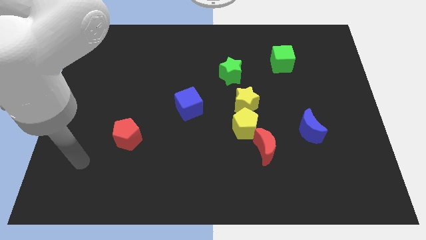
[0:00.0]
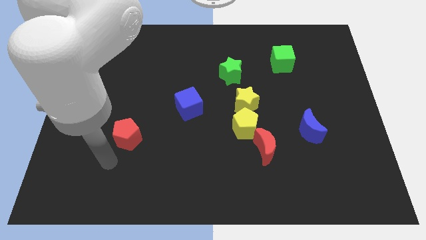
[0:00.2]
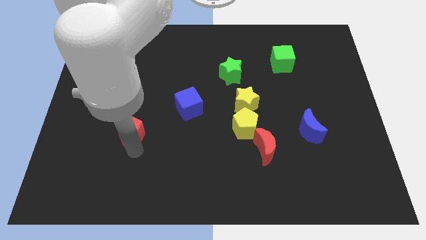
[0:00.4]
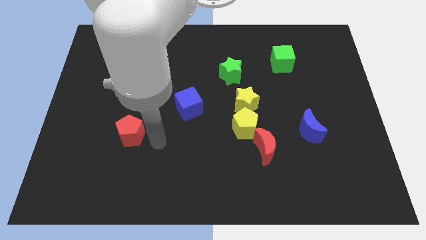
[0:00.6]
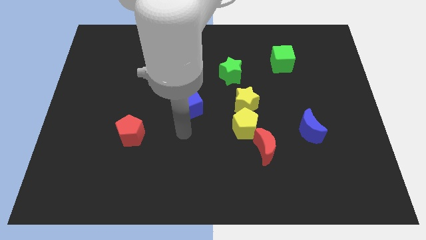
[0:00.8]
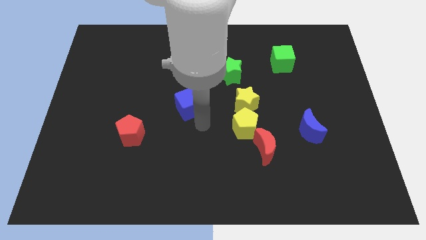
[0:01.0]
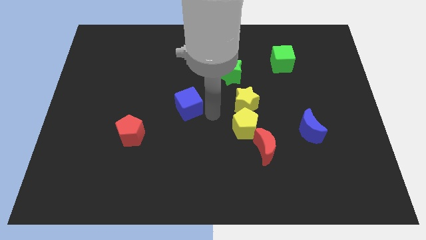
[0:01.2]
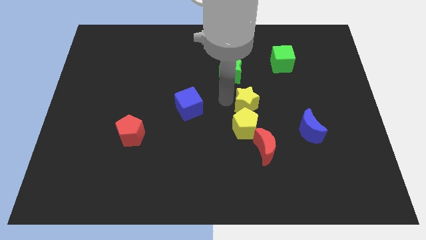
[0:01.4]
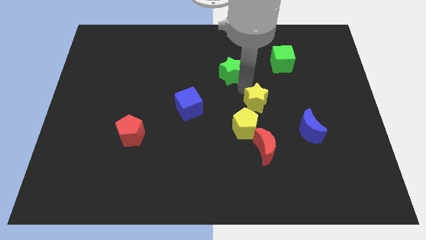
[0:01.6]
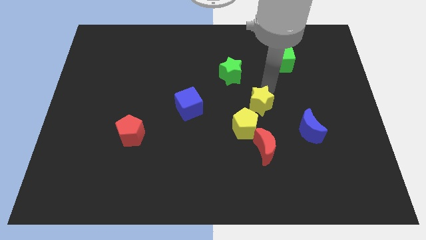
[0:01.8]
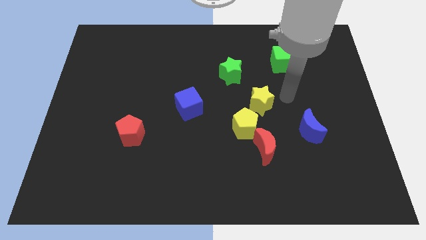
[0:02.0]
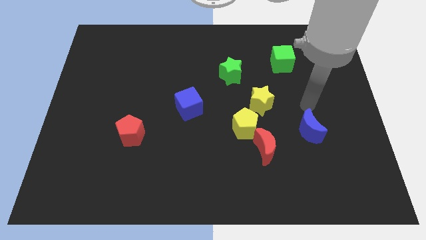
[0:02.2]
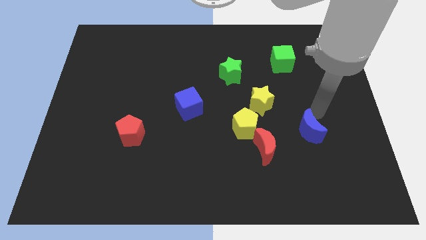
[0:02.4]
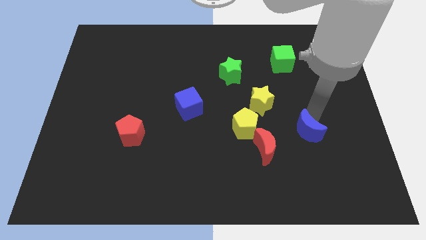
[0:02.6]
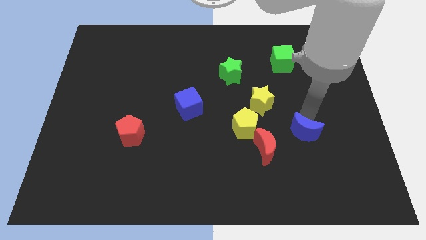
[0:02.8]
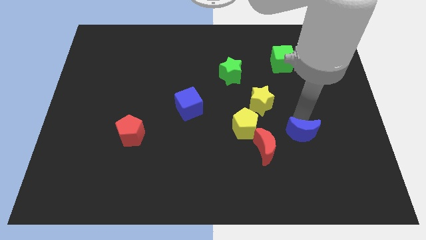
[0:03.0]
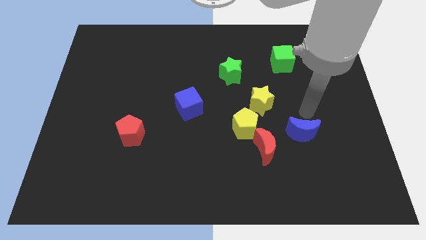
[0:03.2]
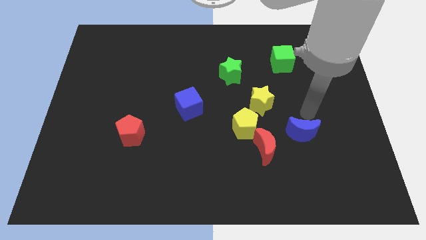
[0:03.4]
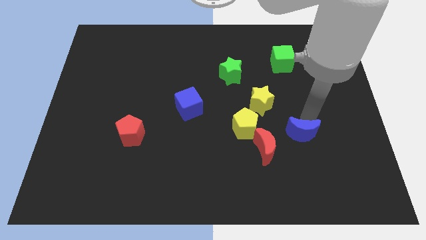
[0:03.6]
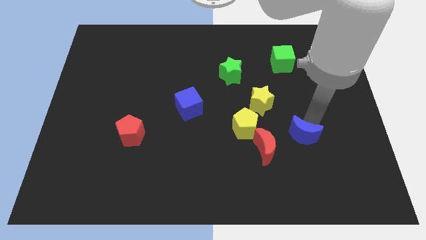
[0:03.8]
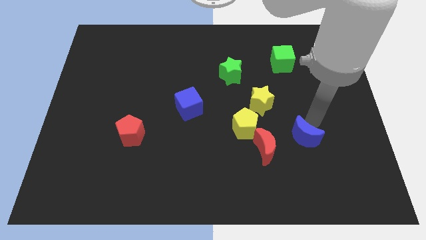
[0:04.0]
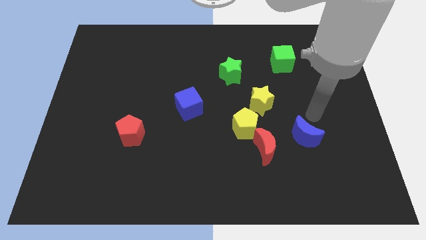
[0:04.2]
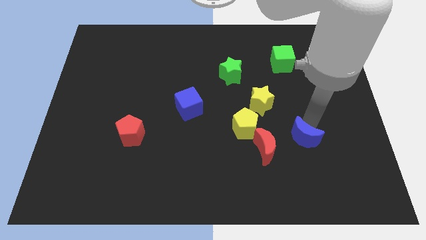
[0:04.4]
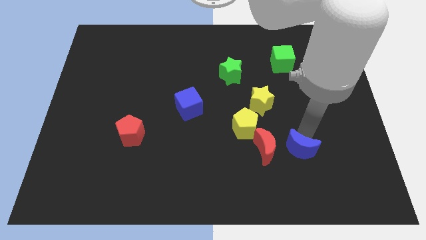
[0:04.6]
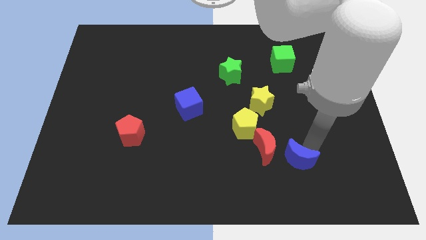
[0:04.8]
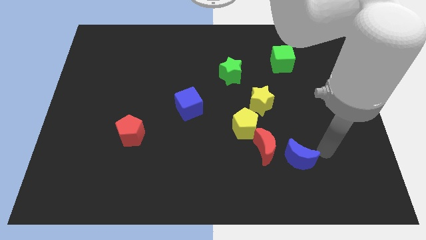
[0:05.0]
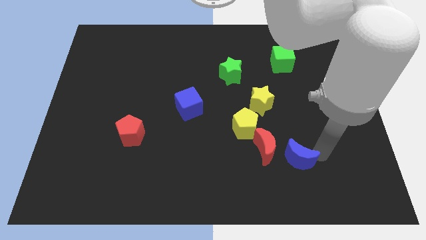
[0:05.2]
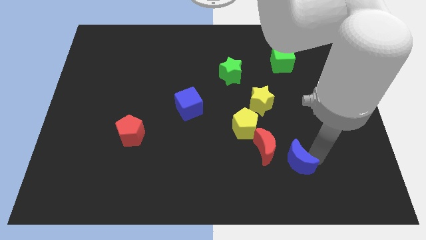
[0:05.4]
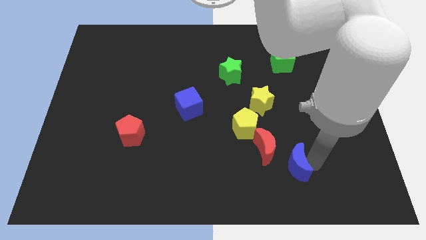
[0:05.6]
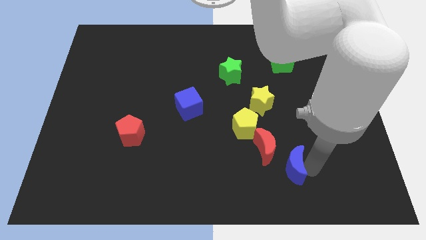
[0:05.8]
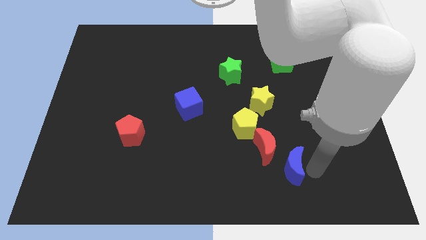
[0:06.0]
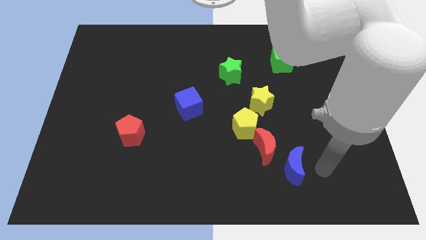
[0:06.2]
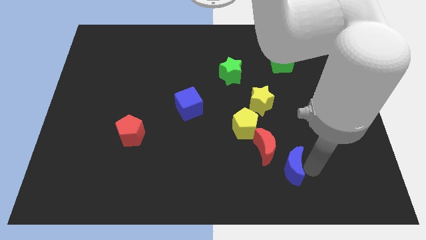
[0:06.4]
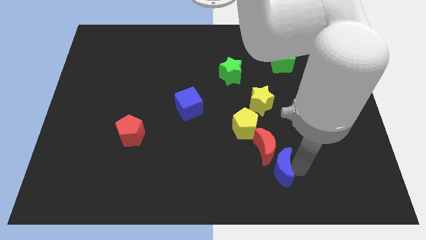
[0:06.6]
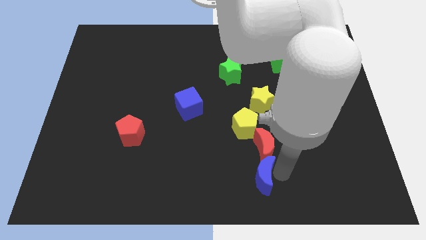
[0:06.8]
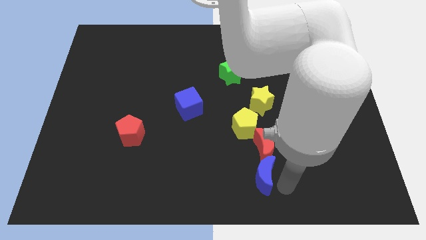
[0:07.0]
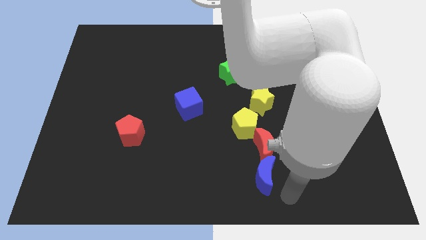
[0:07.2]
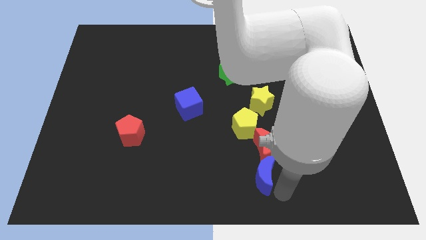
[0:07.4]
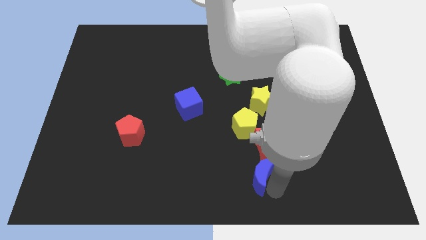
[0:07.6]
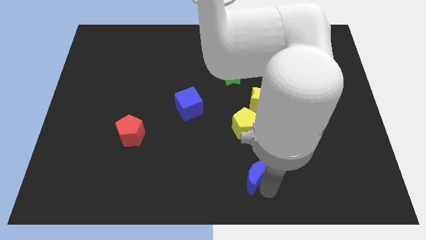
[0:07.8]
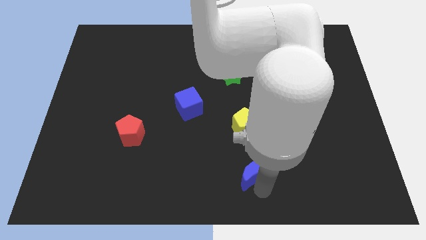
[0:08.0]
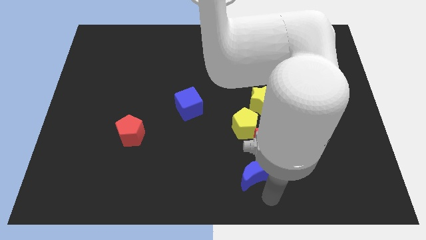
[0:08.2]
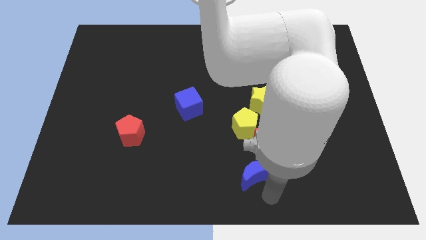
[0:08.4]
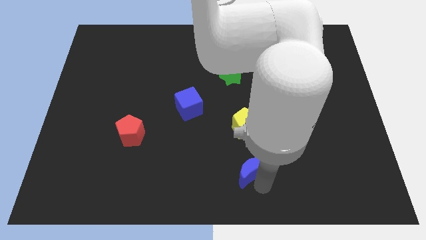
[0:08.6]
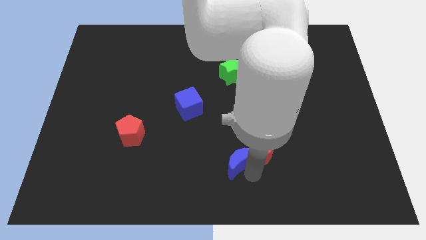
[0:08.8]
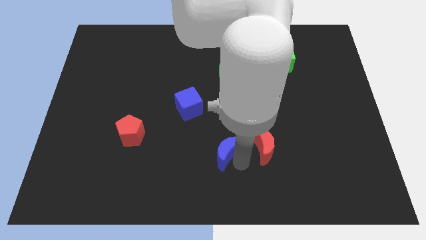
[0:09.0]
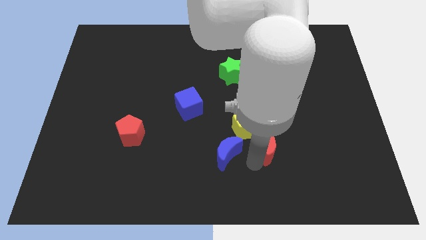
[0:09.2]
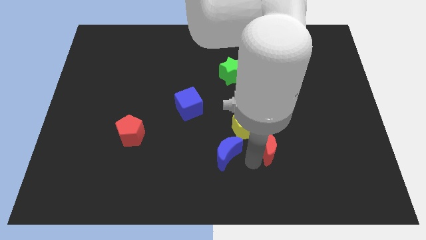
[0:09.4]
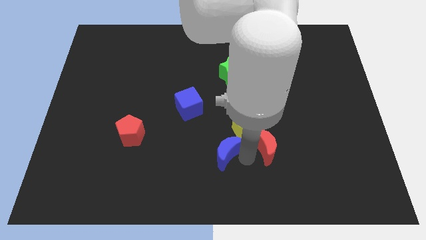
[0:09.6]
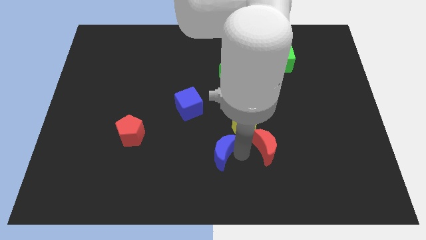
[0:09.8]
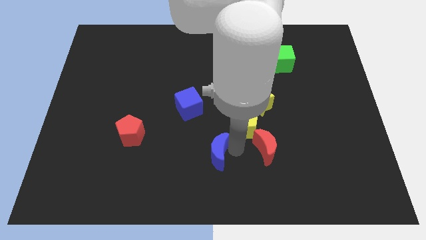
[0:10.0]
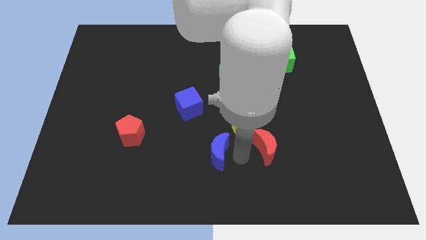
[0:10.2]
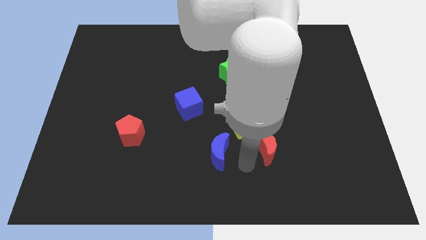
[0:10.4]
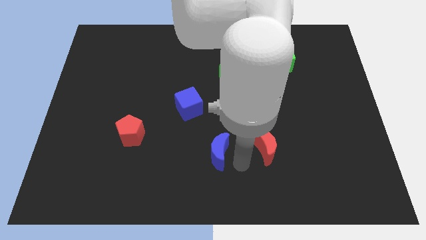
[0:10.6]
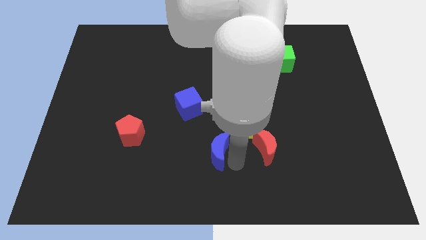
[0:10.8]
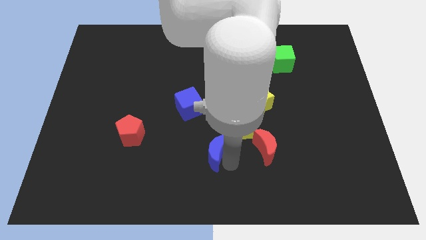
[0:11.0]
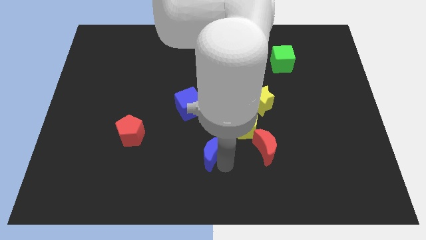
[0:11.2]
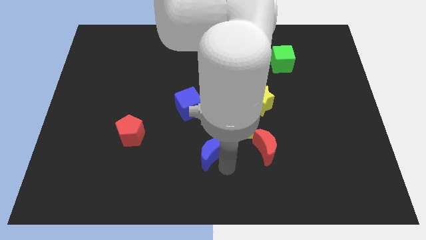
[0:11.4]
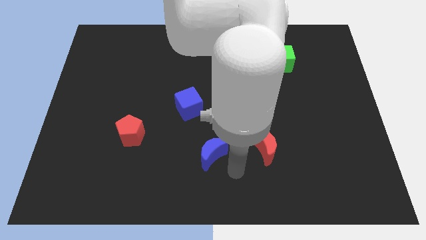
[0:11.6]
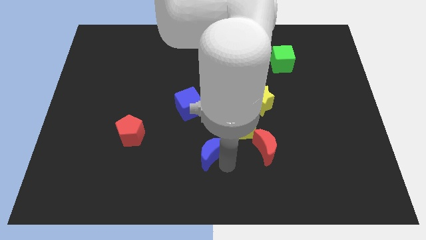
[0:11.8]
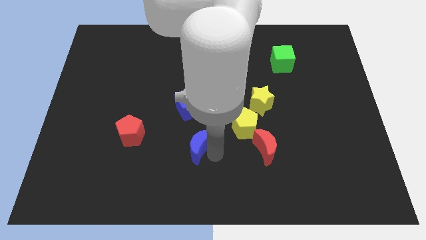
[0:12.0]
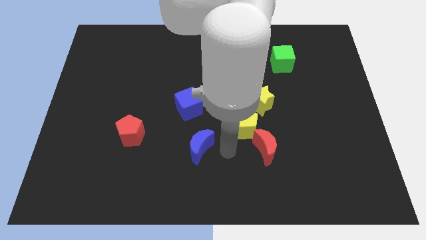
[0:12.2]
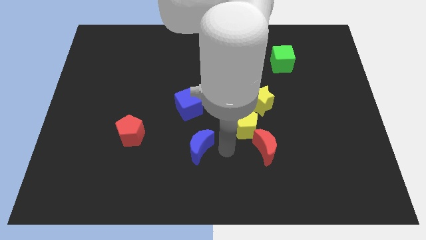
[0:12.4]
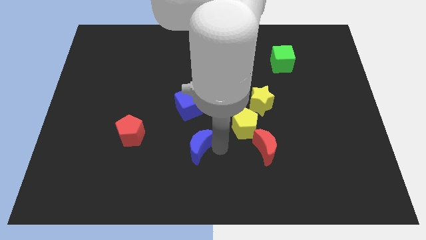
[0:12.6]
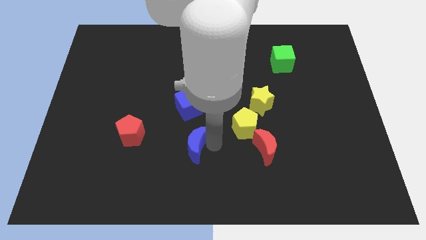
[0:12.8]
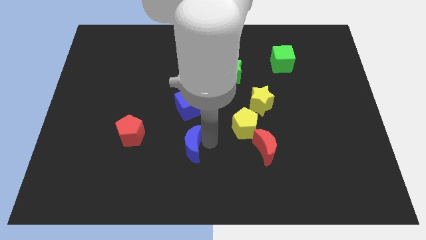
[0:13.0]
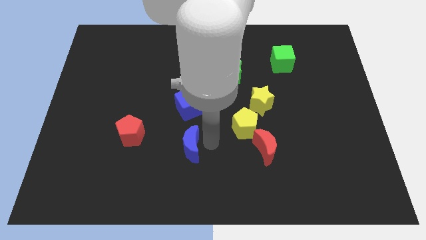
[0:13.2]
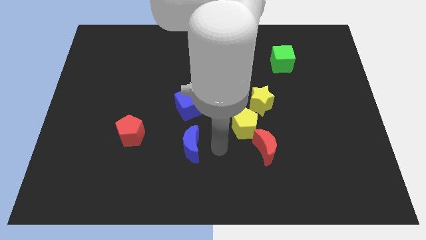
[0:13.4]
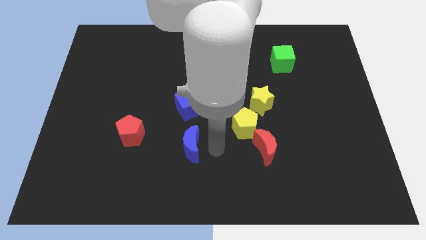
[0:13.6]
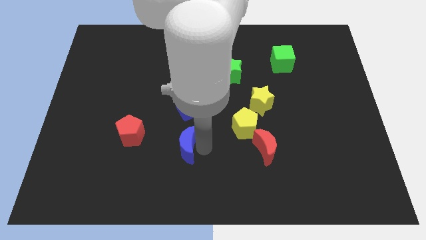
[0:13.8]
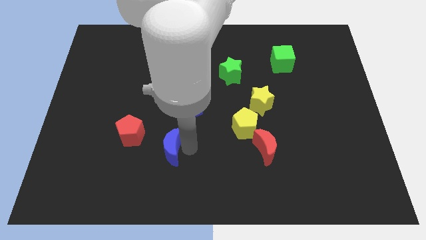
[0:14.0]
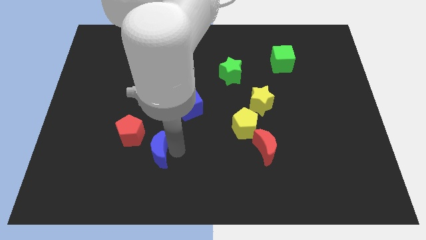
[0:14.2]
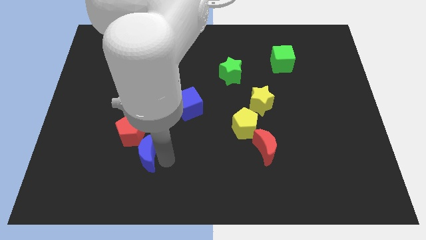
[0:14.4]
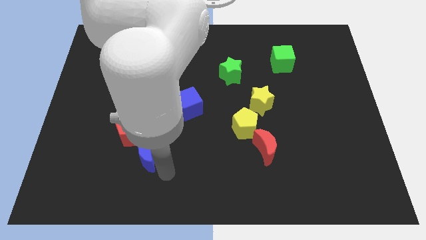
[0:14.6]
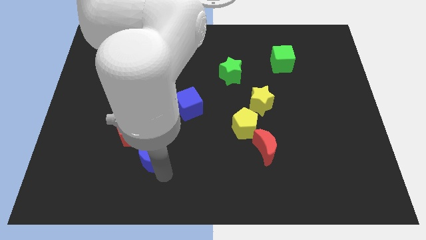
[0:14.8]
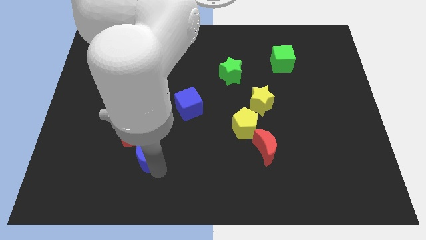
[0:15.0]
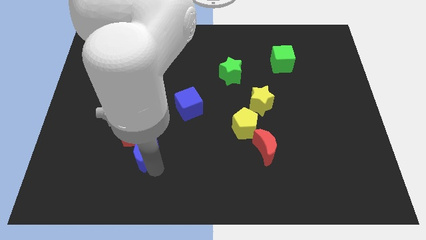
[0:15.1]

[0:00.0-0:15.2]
move the blue moon next to the red pentagon
